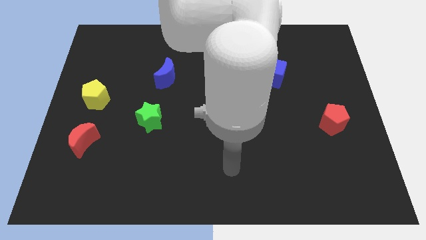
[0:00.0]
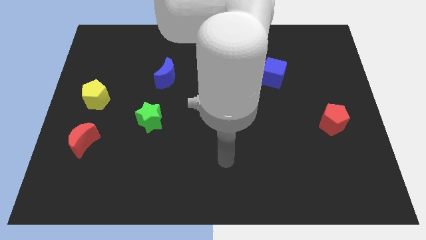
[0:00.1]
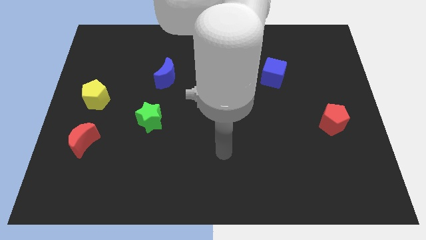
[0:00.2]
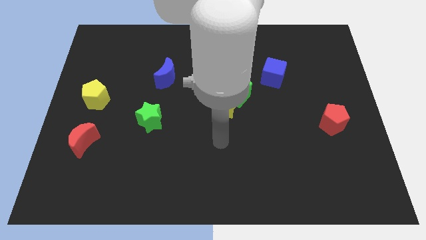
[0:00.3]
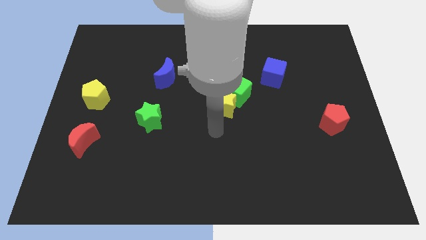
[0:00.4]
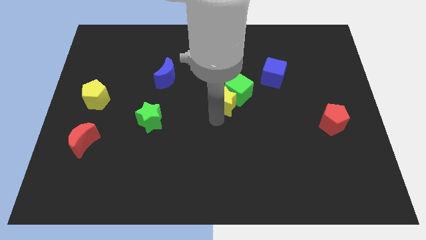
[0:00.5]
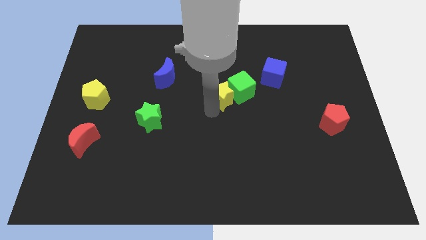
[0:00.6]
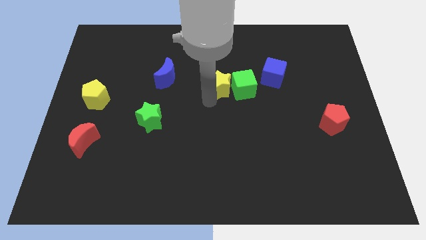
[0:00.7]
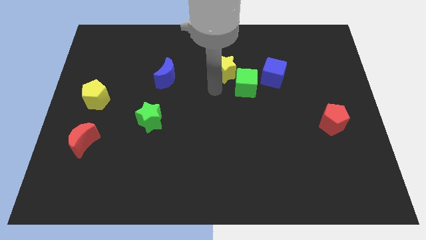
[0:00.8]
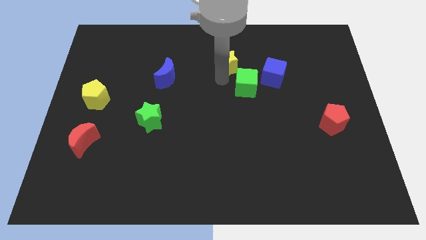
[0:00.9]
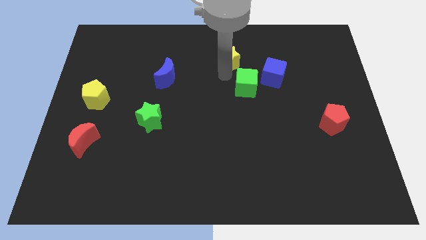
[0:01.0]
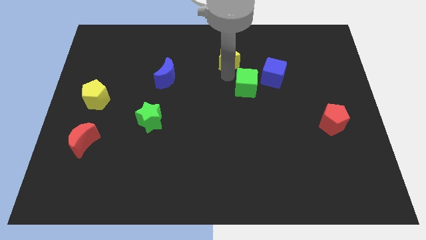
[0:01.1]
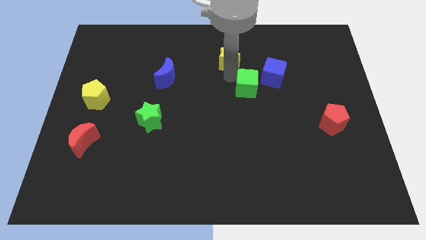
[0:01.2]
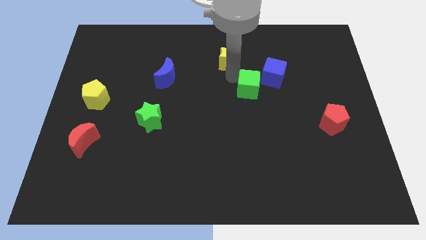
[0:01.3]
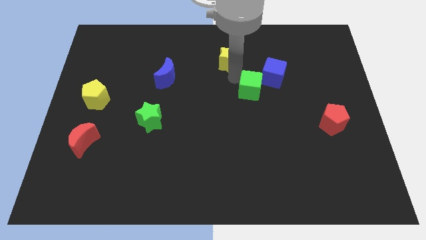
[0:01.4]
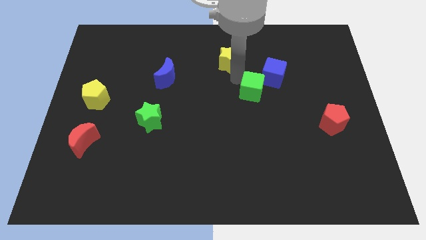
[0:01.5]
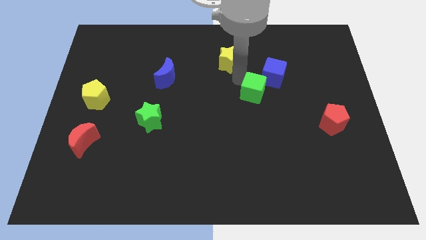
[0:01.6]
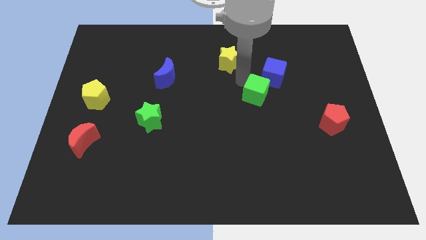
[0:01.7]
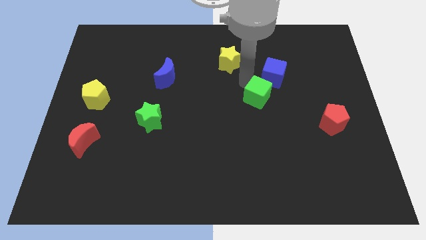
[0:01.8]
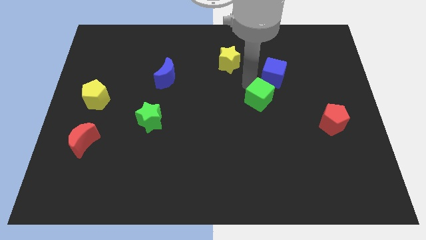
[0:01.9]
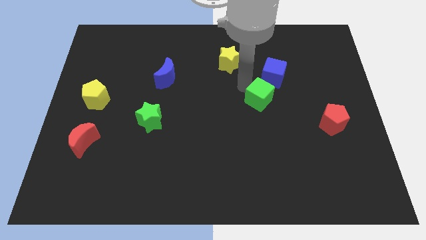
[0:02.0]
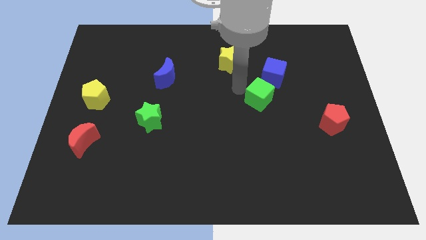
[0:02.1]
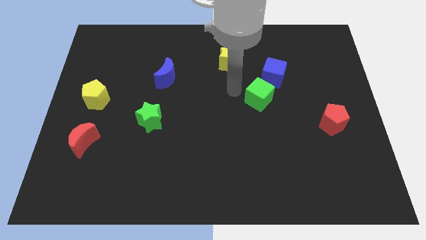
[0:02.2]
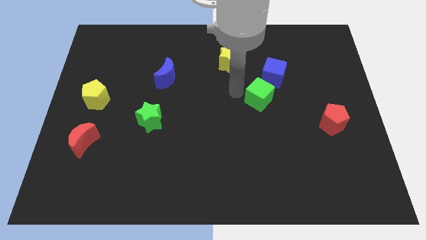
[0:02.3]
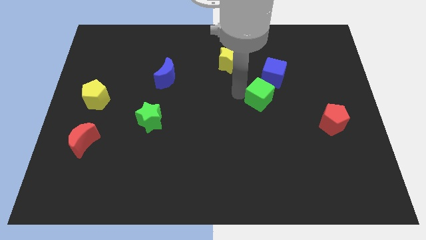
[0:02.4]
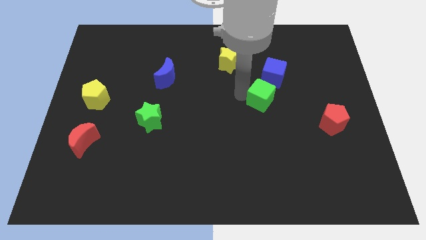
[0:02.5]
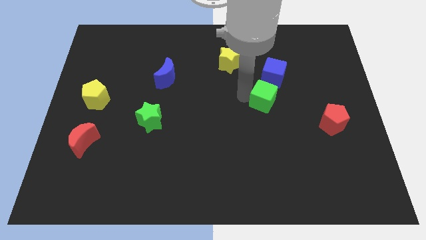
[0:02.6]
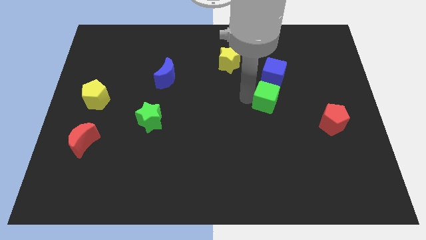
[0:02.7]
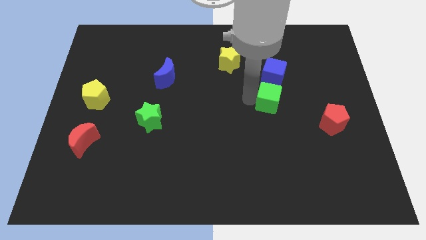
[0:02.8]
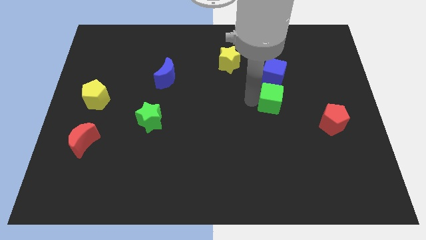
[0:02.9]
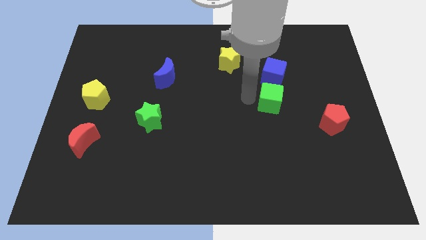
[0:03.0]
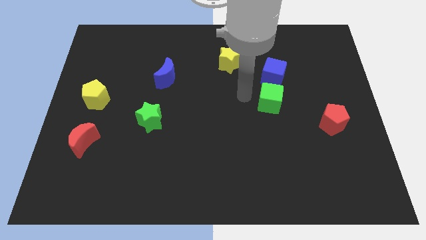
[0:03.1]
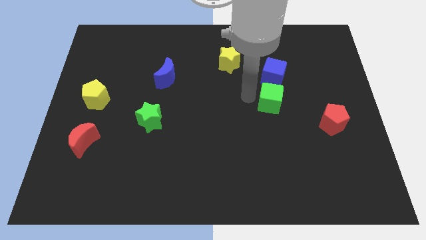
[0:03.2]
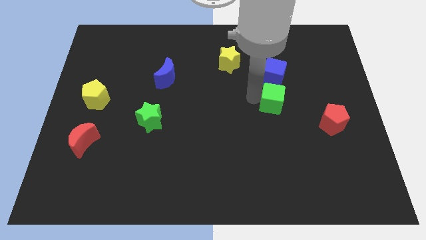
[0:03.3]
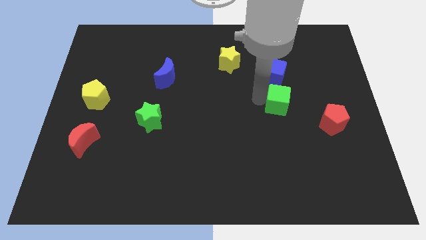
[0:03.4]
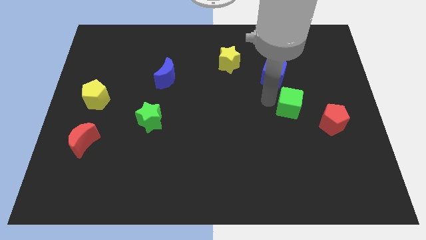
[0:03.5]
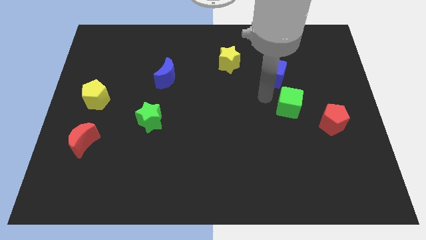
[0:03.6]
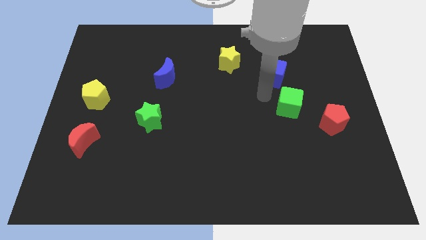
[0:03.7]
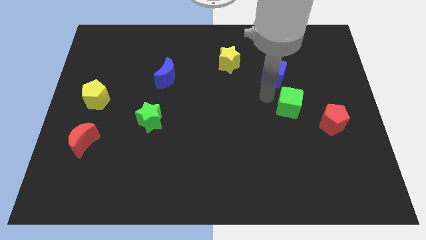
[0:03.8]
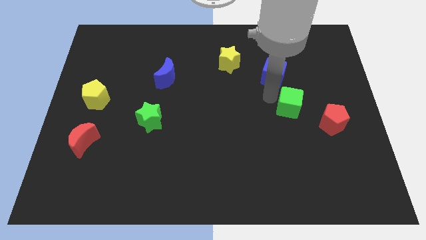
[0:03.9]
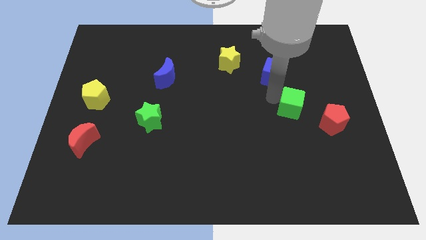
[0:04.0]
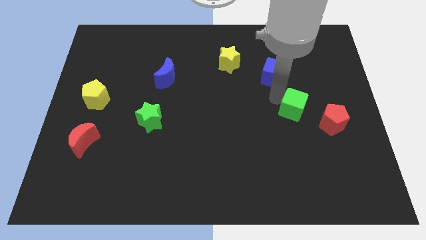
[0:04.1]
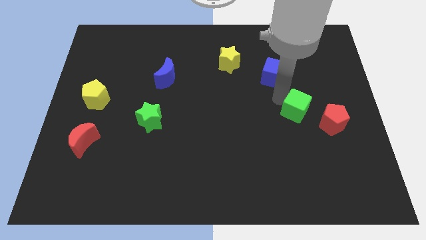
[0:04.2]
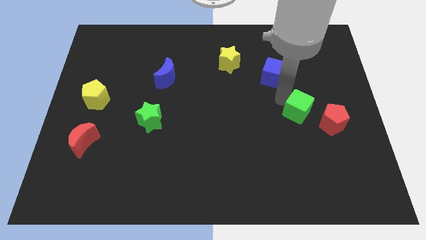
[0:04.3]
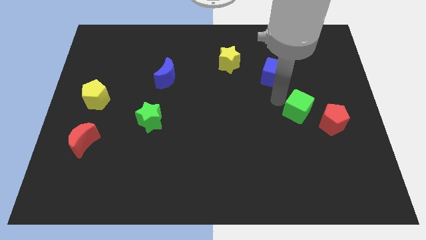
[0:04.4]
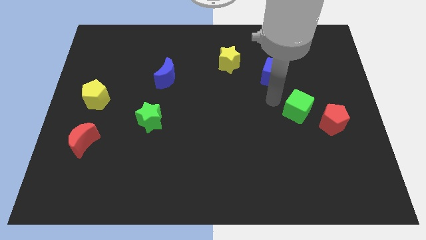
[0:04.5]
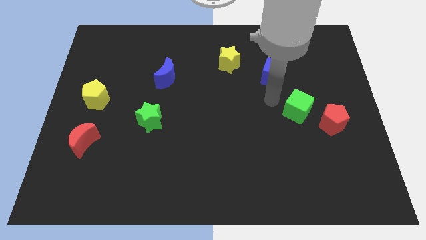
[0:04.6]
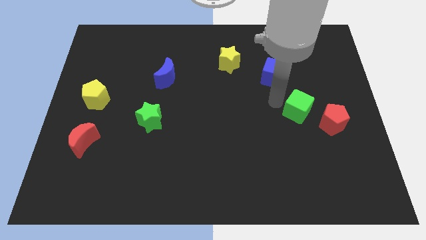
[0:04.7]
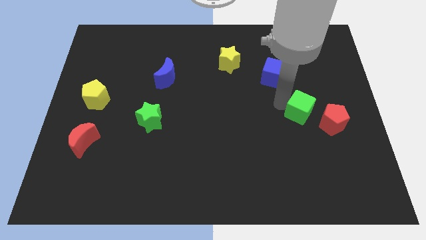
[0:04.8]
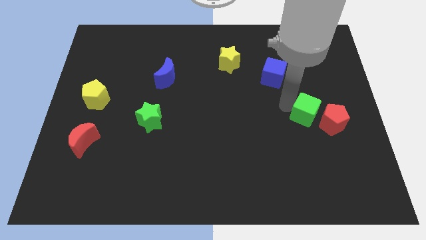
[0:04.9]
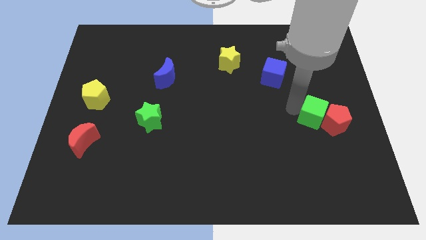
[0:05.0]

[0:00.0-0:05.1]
push the green cube to the red pentagon
